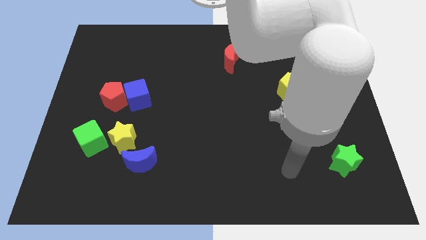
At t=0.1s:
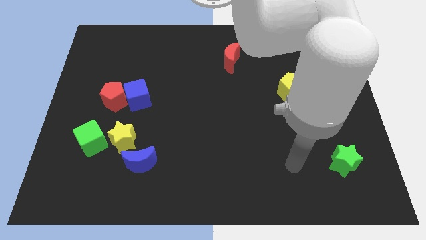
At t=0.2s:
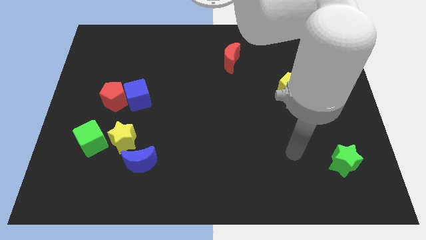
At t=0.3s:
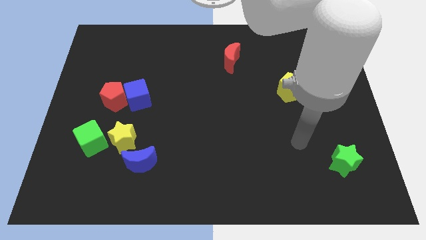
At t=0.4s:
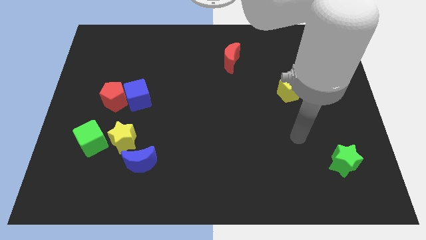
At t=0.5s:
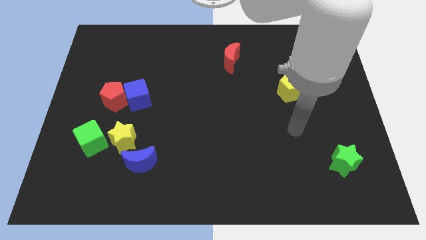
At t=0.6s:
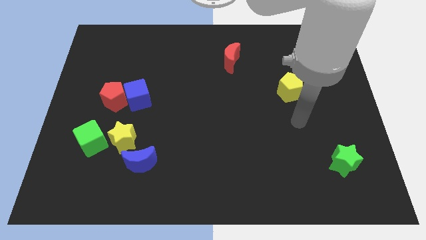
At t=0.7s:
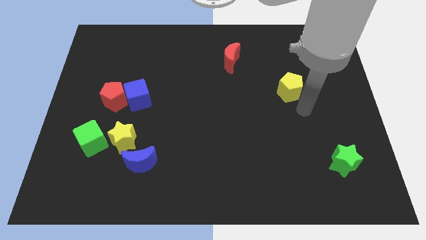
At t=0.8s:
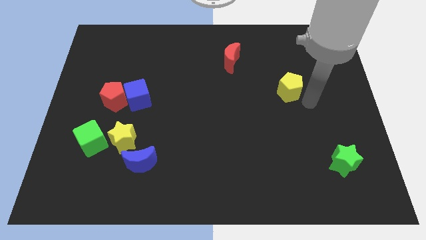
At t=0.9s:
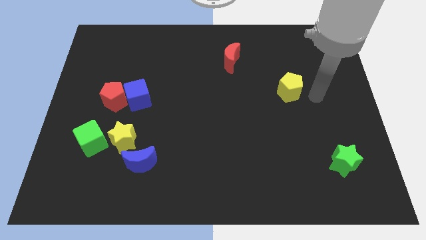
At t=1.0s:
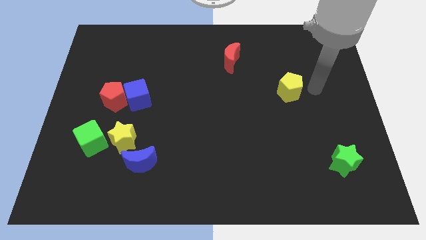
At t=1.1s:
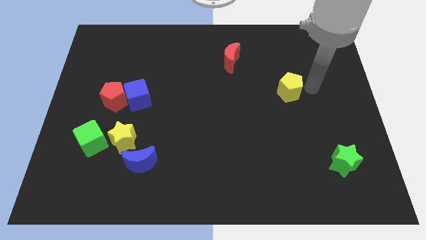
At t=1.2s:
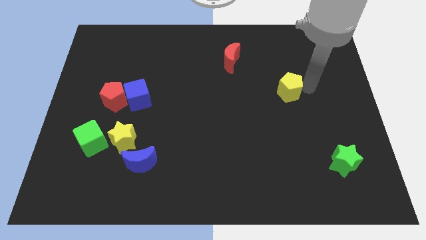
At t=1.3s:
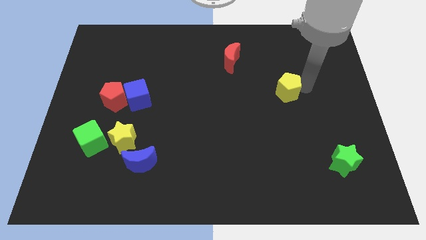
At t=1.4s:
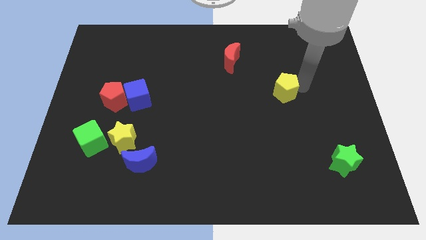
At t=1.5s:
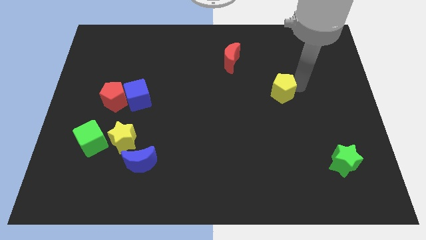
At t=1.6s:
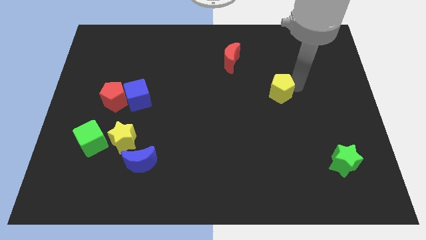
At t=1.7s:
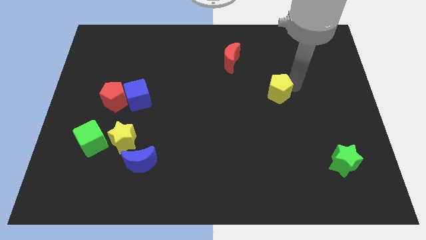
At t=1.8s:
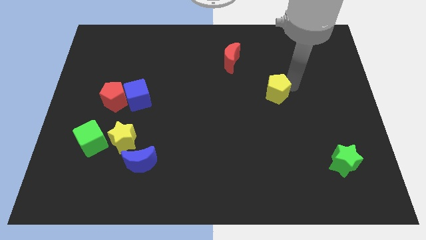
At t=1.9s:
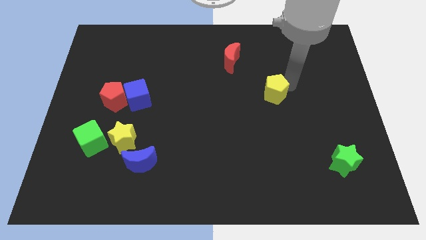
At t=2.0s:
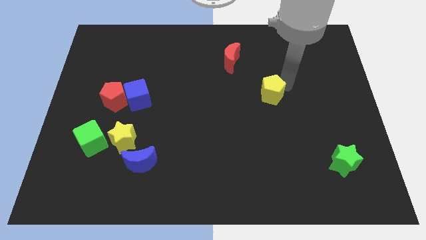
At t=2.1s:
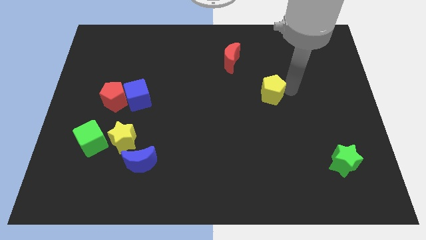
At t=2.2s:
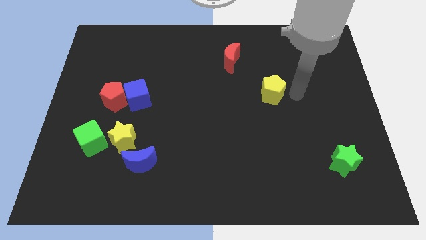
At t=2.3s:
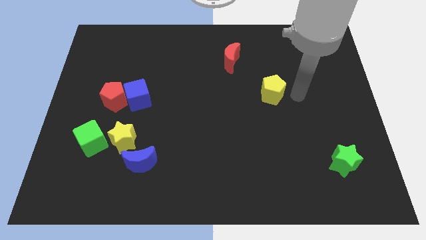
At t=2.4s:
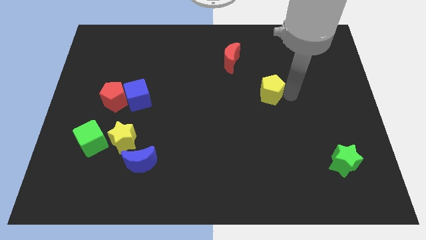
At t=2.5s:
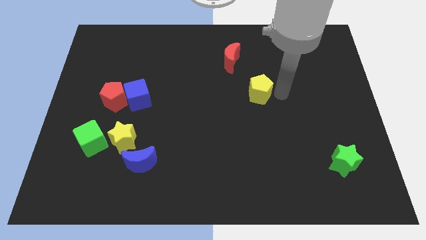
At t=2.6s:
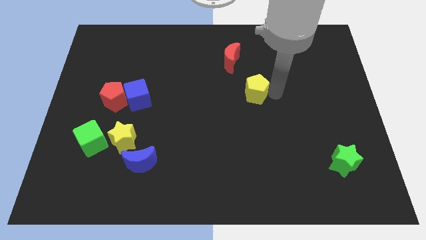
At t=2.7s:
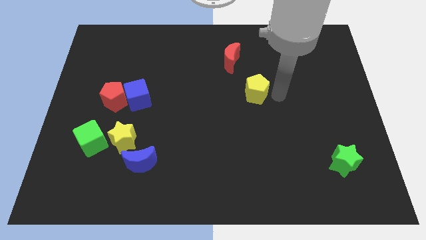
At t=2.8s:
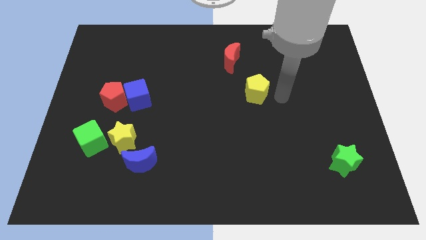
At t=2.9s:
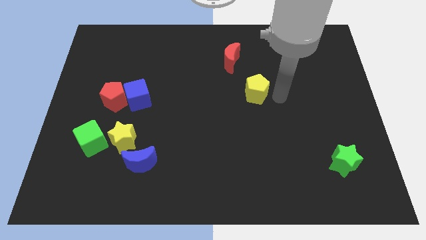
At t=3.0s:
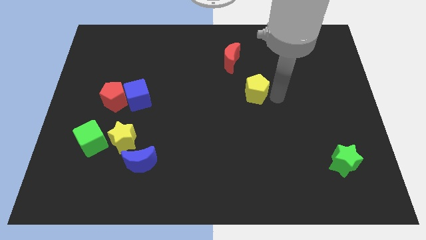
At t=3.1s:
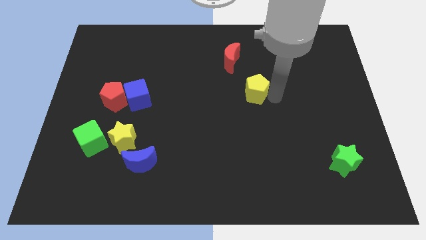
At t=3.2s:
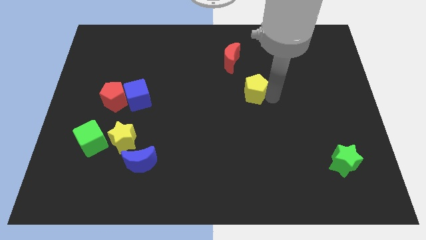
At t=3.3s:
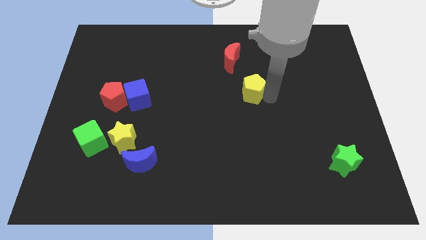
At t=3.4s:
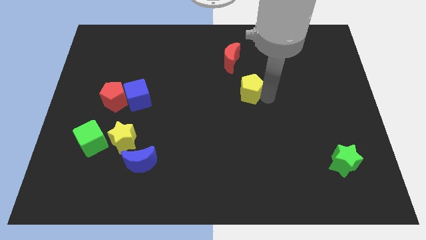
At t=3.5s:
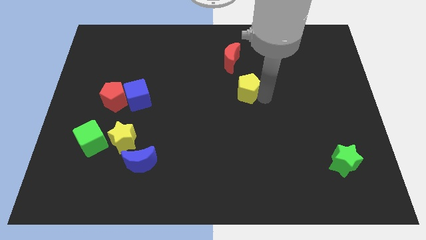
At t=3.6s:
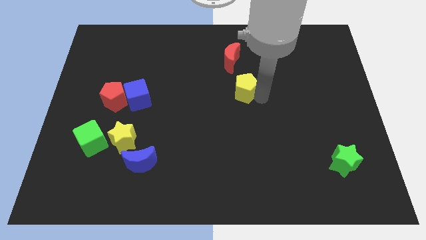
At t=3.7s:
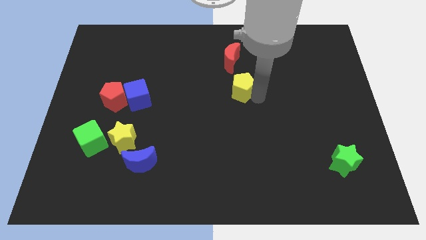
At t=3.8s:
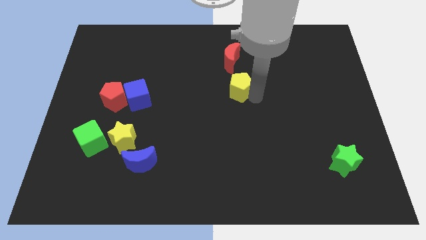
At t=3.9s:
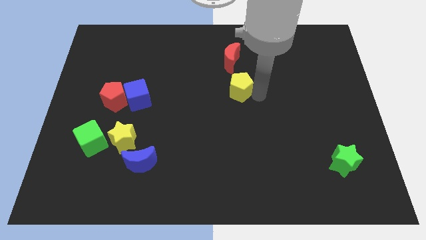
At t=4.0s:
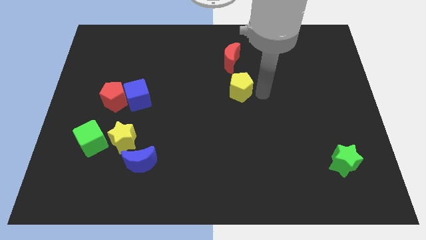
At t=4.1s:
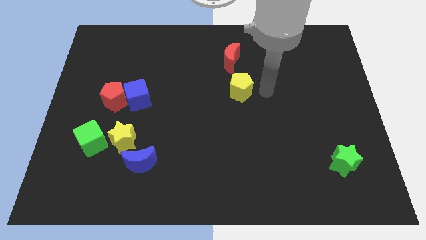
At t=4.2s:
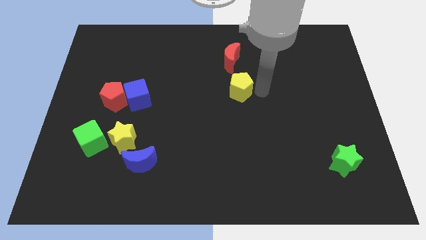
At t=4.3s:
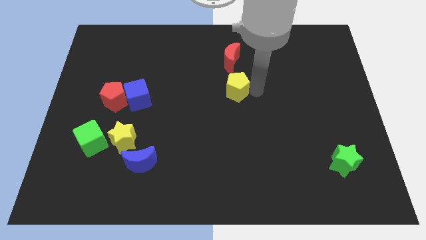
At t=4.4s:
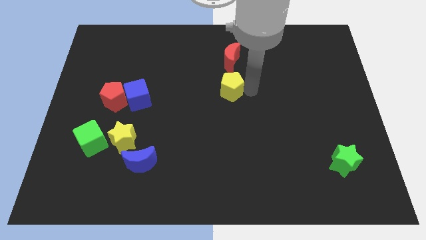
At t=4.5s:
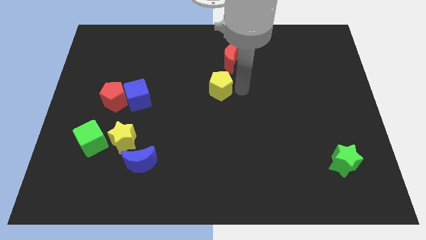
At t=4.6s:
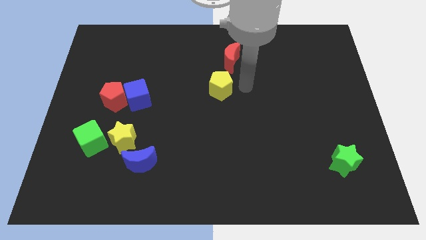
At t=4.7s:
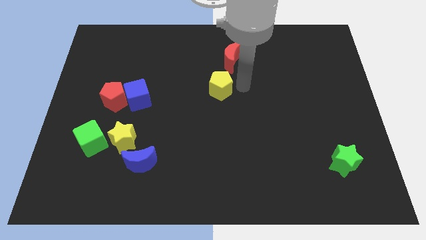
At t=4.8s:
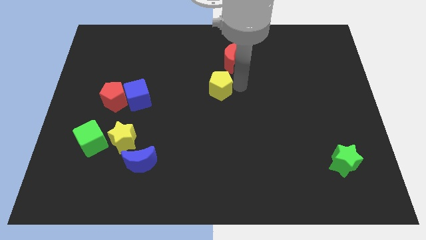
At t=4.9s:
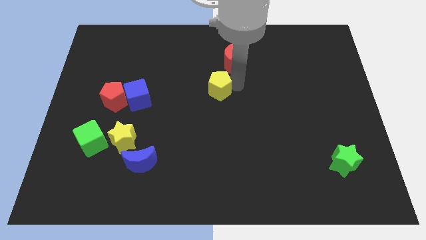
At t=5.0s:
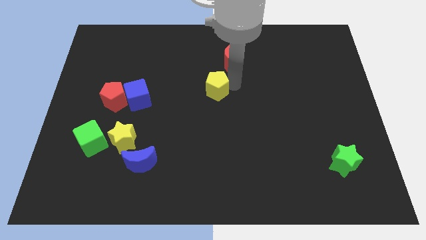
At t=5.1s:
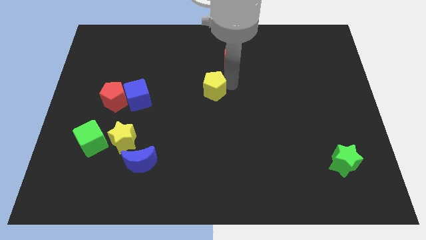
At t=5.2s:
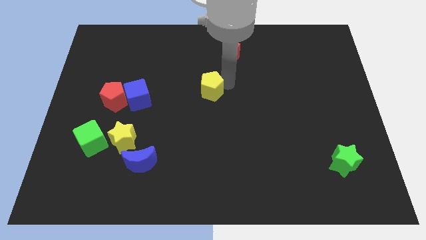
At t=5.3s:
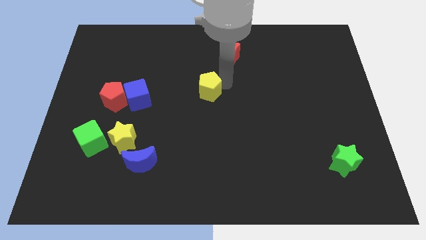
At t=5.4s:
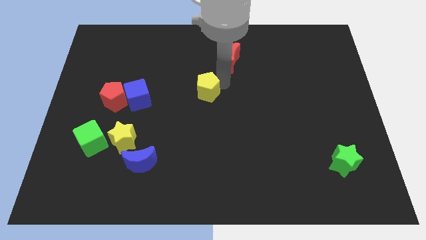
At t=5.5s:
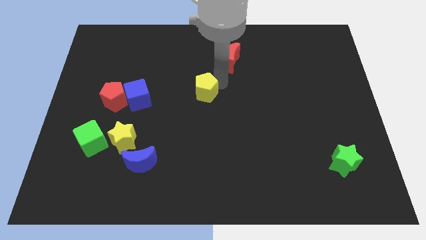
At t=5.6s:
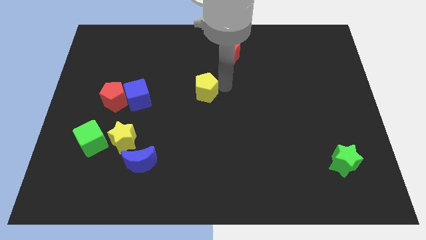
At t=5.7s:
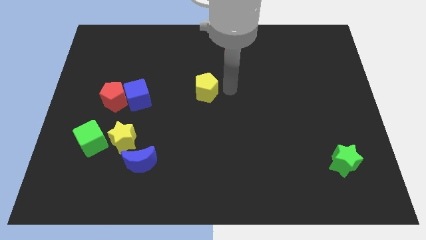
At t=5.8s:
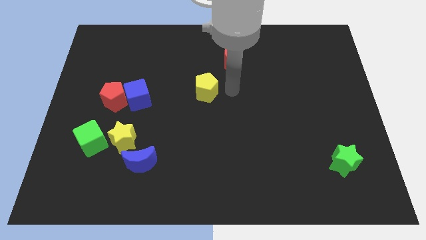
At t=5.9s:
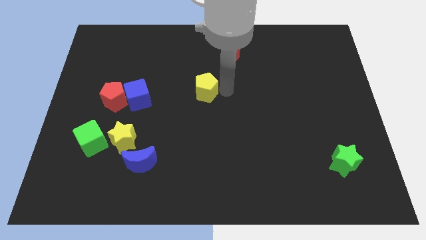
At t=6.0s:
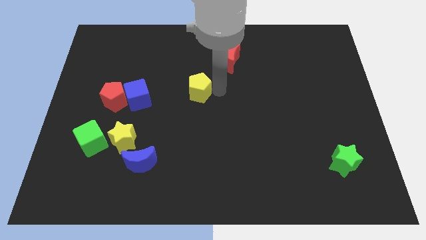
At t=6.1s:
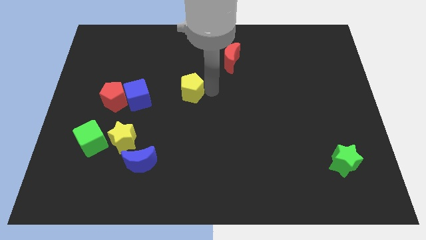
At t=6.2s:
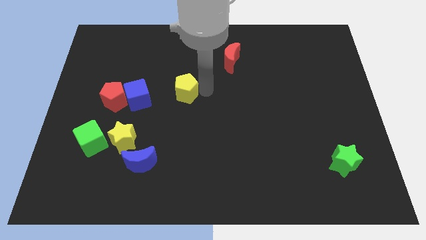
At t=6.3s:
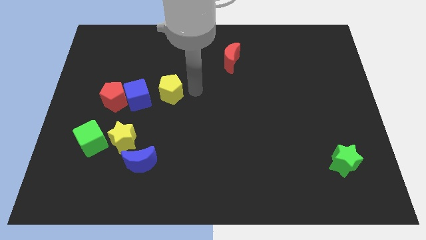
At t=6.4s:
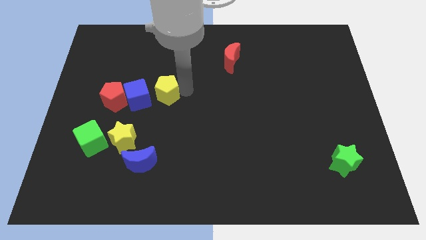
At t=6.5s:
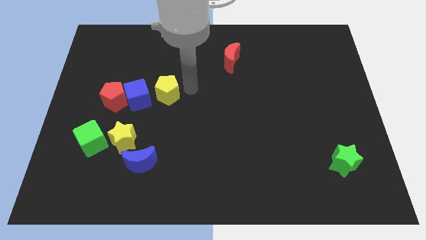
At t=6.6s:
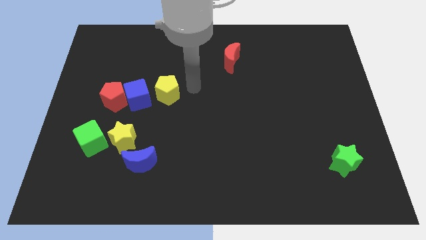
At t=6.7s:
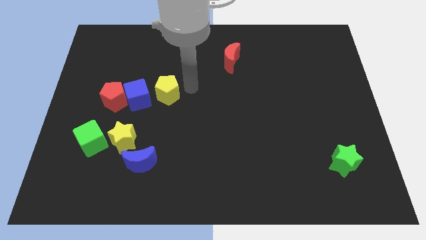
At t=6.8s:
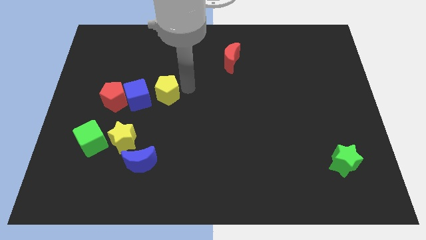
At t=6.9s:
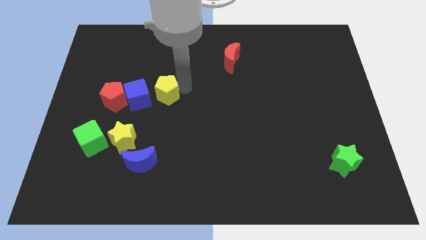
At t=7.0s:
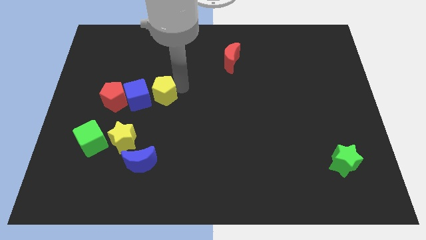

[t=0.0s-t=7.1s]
push the yellow pentagon close to the blue cube

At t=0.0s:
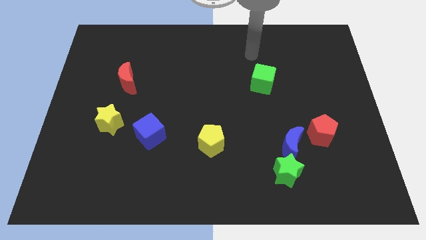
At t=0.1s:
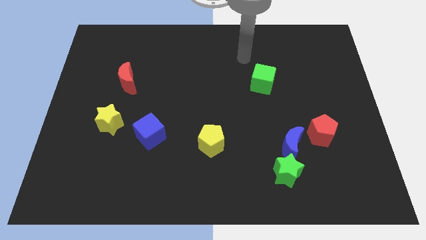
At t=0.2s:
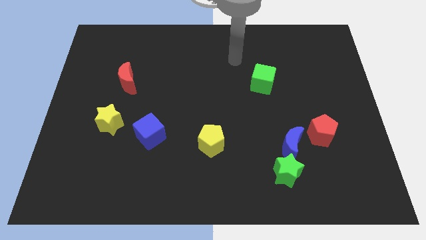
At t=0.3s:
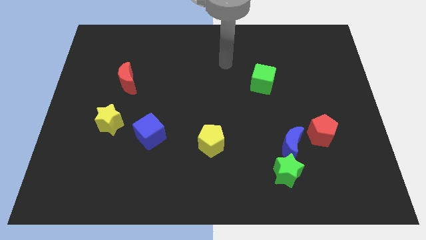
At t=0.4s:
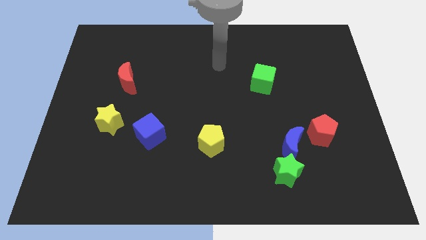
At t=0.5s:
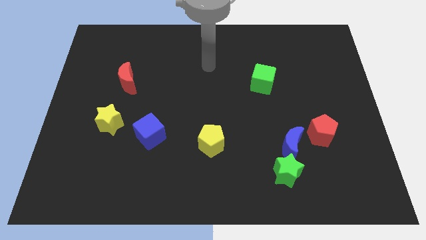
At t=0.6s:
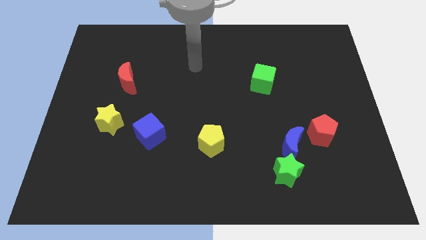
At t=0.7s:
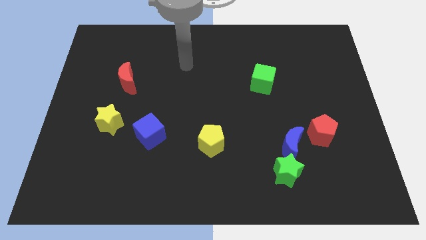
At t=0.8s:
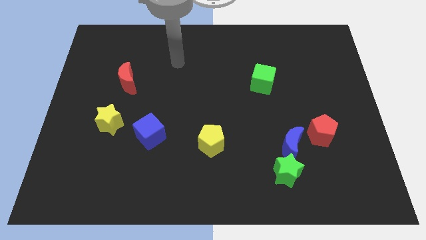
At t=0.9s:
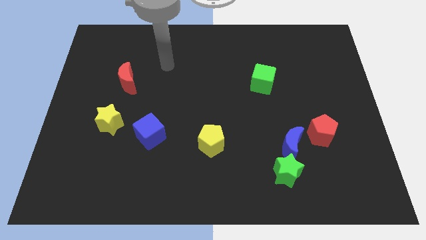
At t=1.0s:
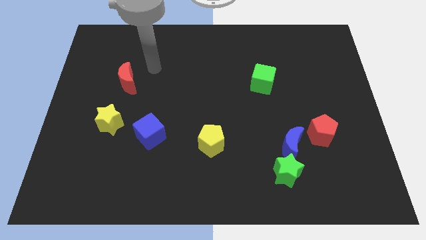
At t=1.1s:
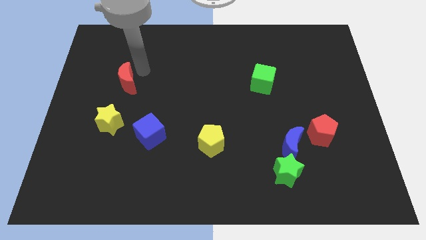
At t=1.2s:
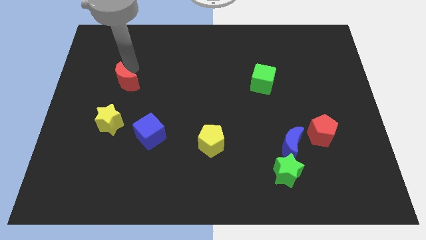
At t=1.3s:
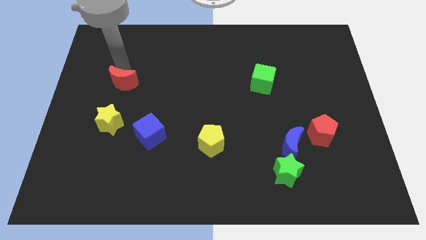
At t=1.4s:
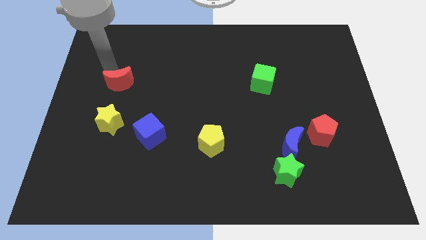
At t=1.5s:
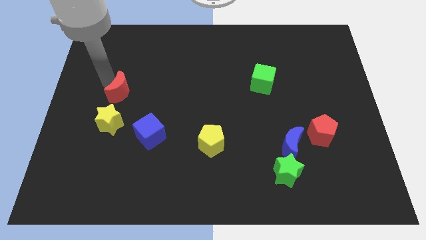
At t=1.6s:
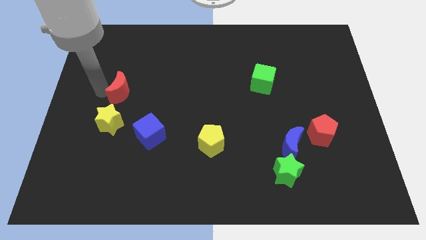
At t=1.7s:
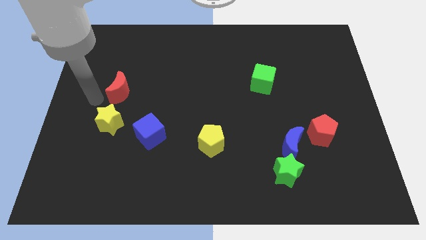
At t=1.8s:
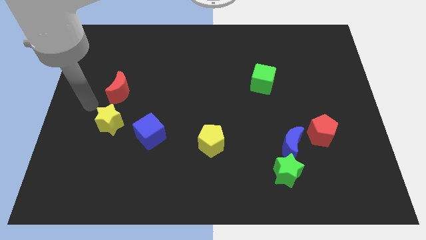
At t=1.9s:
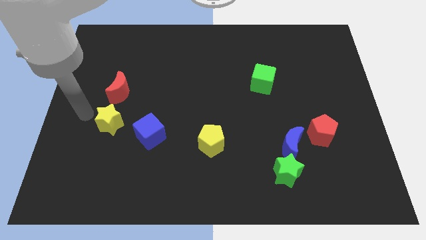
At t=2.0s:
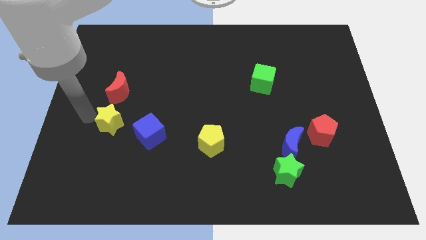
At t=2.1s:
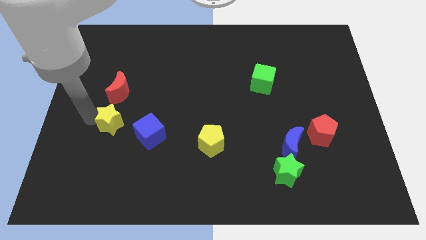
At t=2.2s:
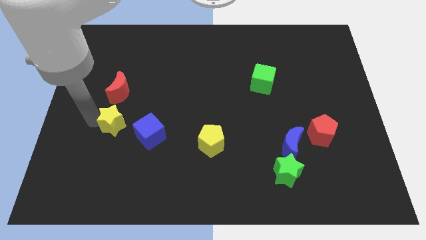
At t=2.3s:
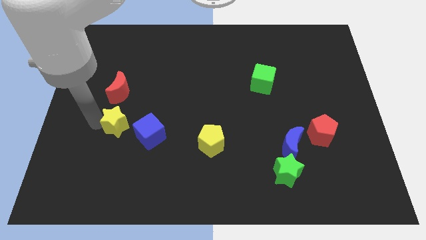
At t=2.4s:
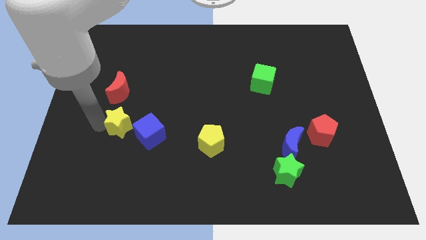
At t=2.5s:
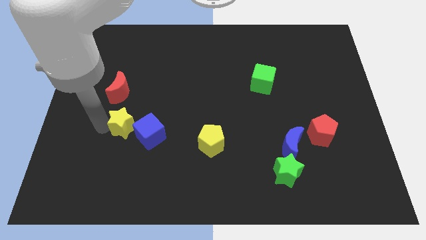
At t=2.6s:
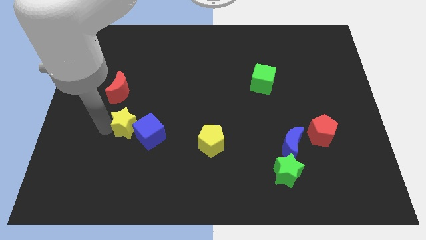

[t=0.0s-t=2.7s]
slide the yellow star next to the blue cube
